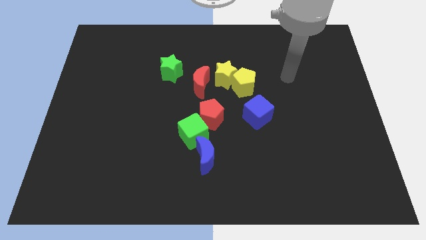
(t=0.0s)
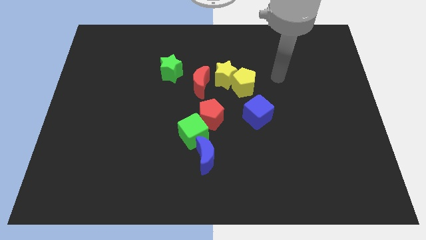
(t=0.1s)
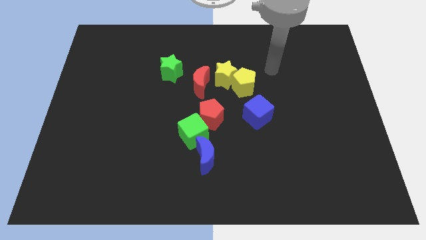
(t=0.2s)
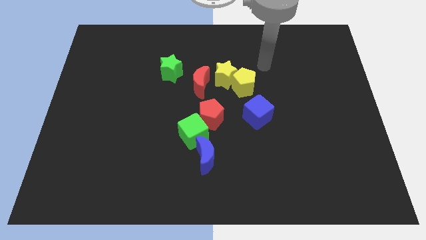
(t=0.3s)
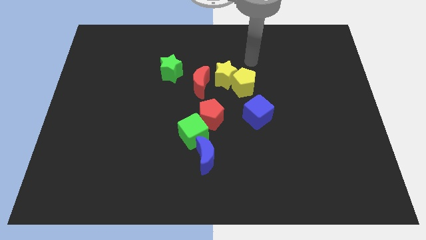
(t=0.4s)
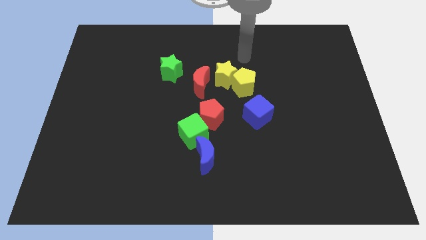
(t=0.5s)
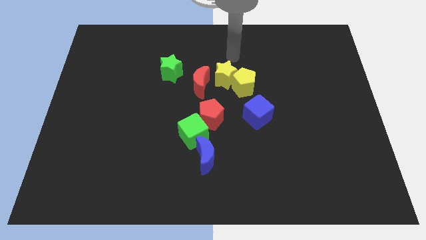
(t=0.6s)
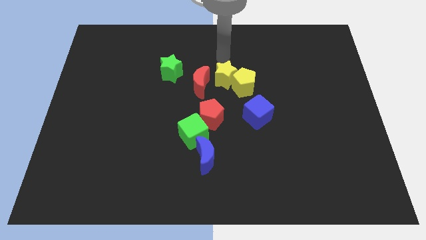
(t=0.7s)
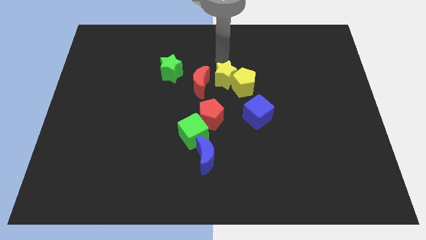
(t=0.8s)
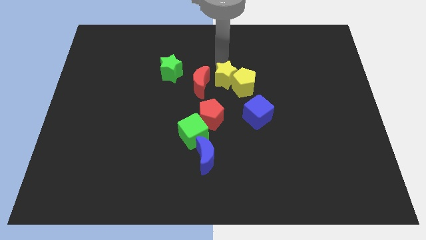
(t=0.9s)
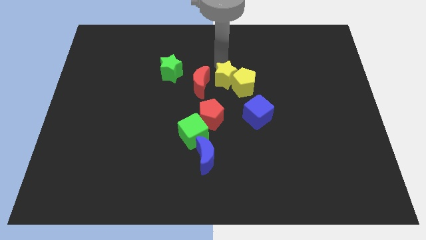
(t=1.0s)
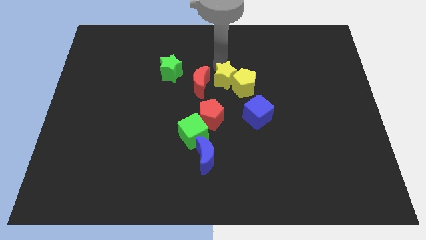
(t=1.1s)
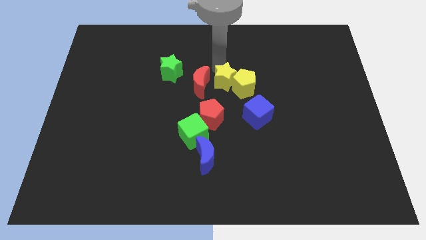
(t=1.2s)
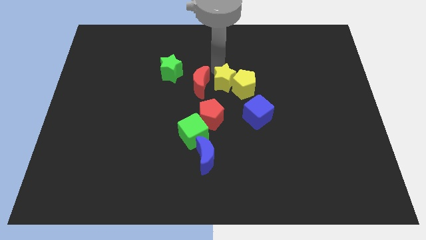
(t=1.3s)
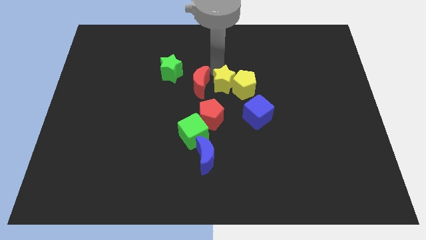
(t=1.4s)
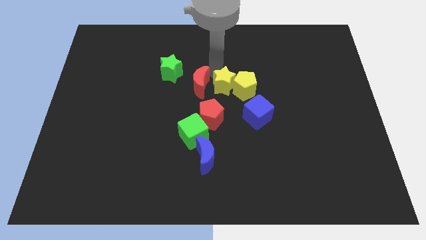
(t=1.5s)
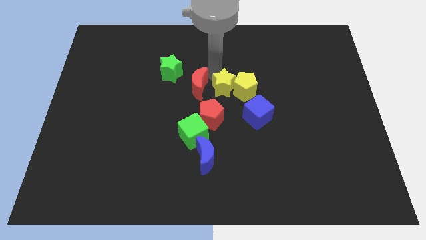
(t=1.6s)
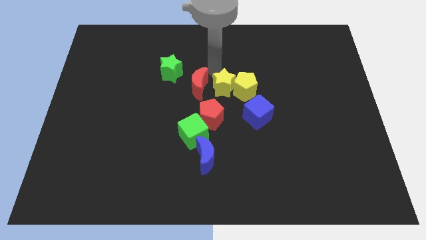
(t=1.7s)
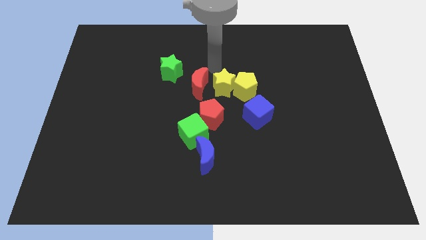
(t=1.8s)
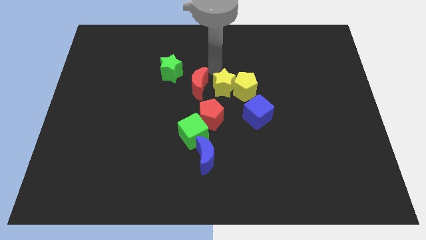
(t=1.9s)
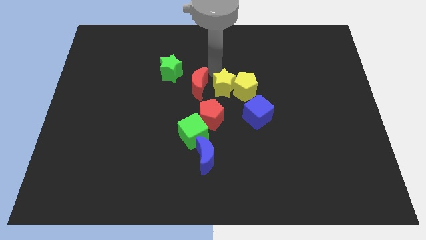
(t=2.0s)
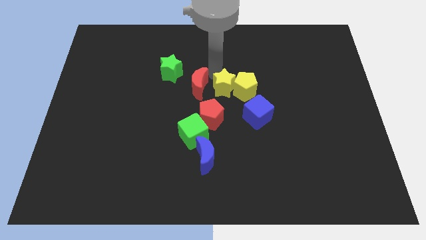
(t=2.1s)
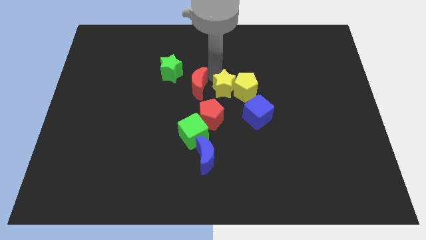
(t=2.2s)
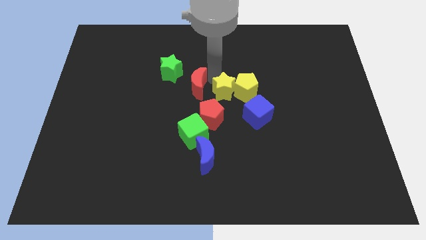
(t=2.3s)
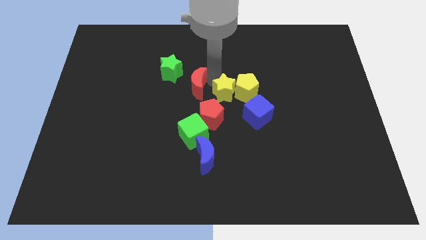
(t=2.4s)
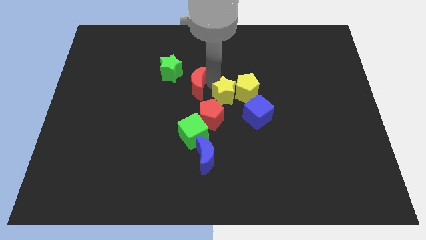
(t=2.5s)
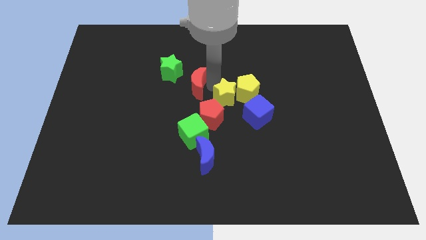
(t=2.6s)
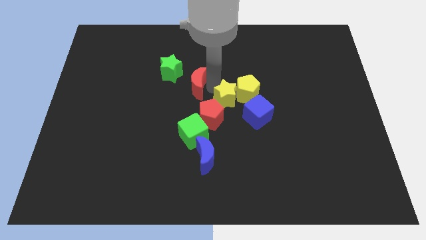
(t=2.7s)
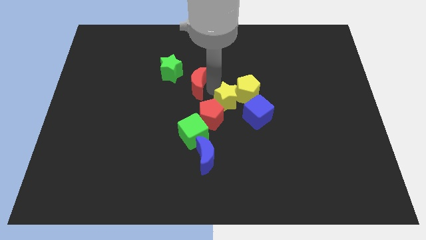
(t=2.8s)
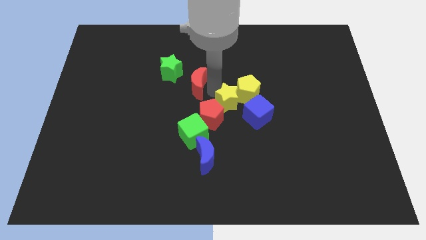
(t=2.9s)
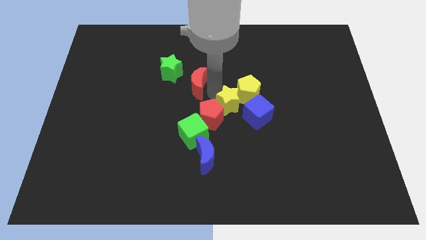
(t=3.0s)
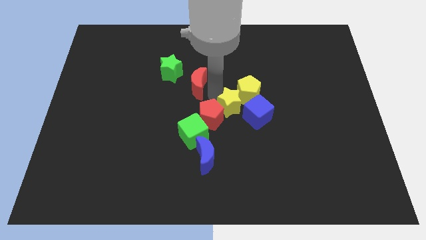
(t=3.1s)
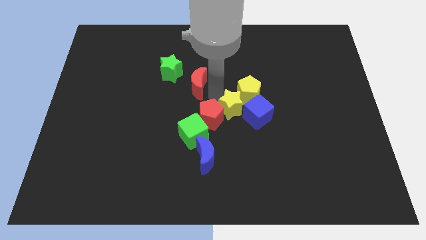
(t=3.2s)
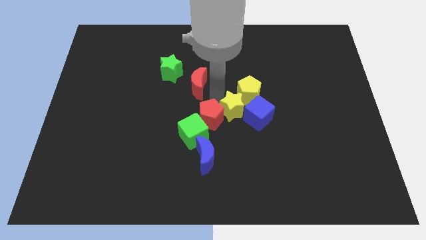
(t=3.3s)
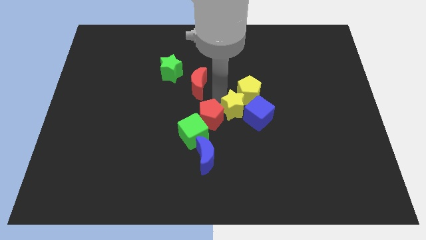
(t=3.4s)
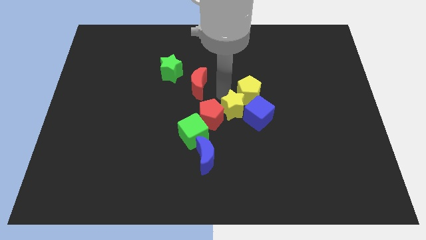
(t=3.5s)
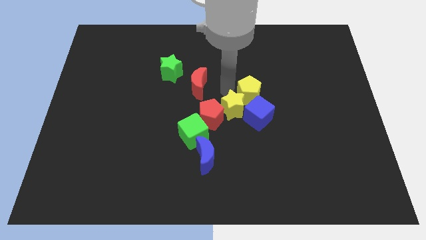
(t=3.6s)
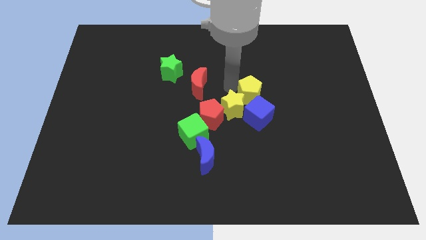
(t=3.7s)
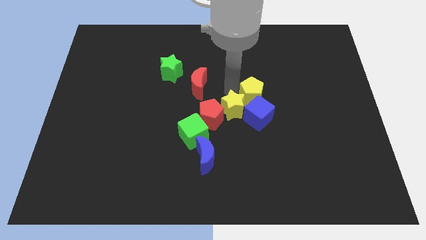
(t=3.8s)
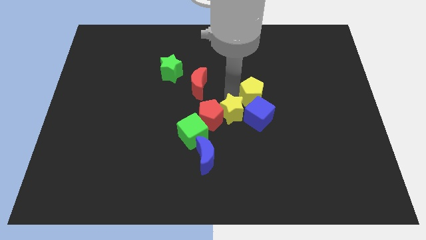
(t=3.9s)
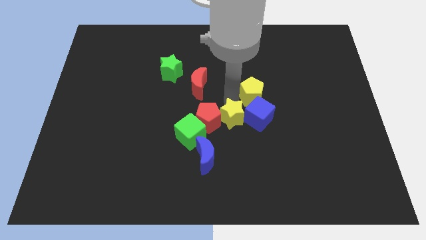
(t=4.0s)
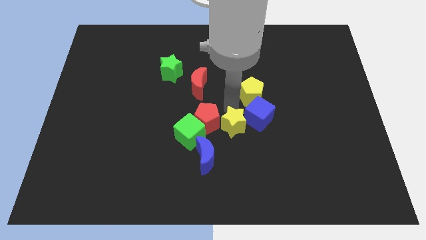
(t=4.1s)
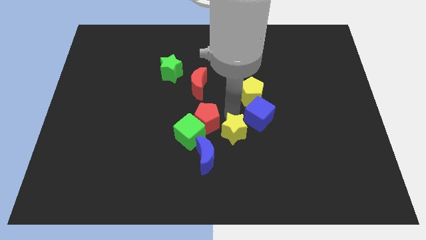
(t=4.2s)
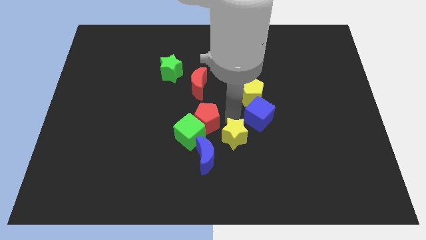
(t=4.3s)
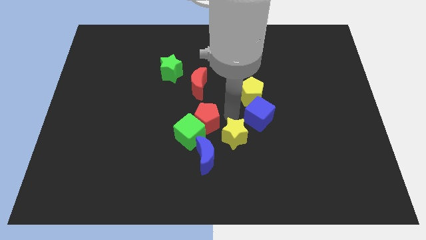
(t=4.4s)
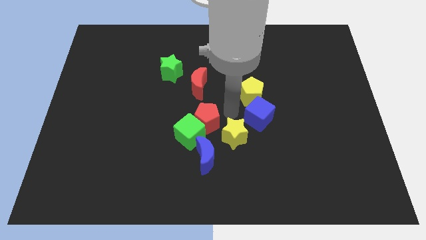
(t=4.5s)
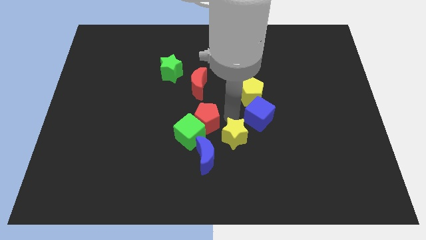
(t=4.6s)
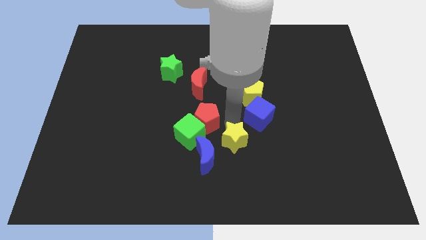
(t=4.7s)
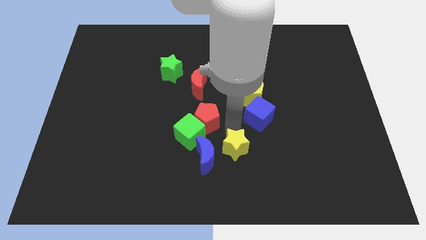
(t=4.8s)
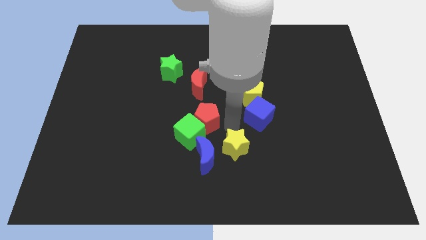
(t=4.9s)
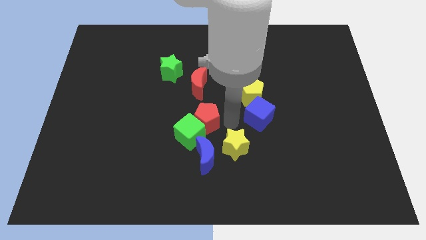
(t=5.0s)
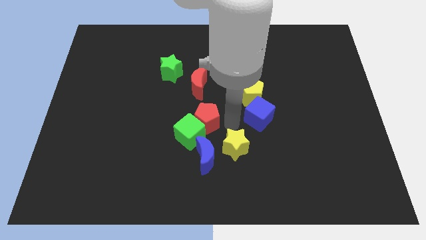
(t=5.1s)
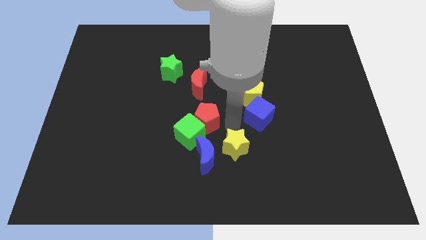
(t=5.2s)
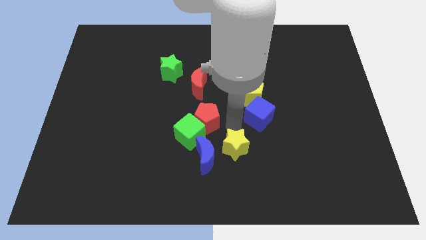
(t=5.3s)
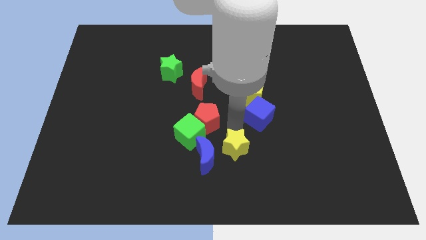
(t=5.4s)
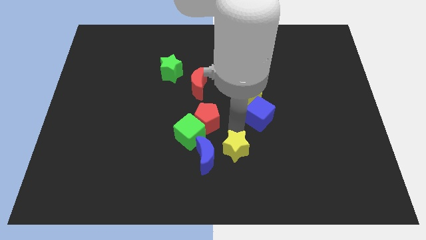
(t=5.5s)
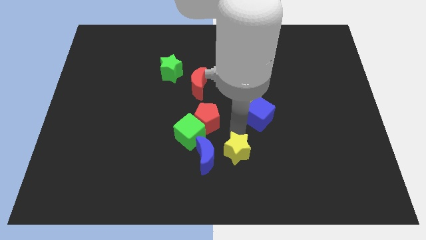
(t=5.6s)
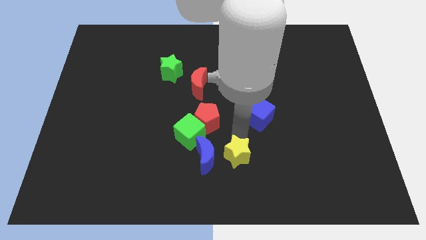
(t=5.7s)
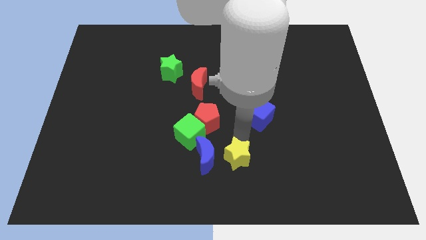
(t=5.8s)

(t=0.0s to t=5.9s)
slide the yellow star to the bottom side

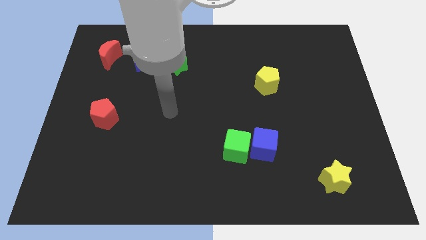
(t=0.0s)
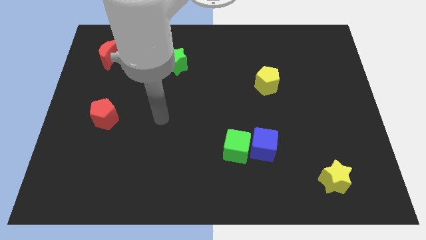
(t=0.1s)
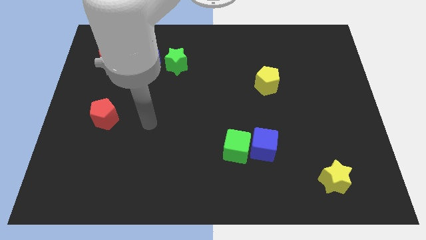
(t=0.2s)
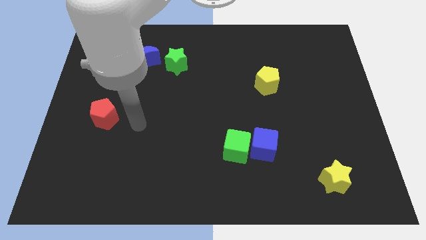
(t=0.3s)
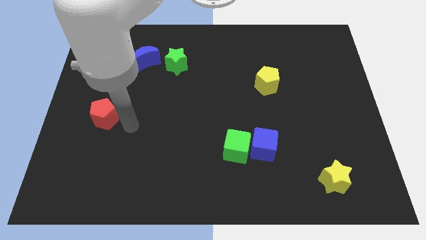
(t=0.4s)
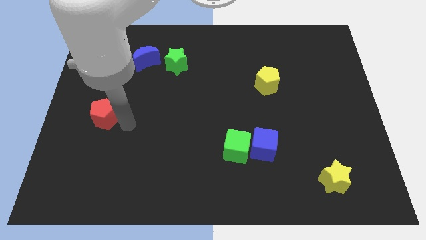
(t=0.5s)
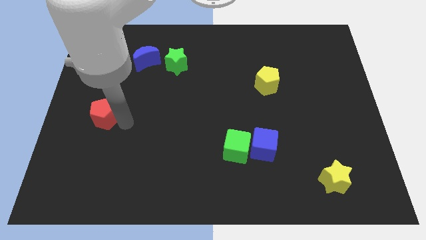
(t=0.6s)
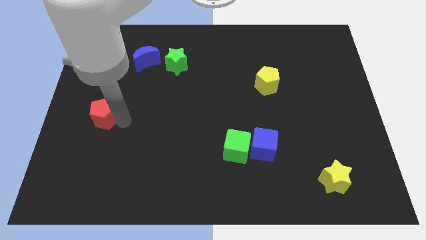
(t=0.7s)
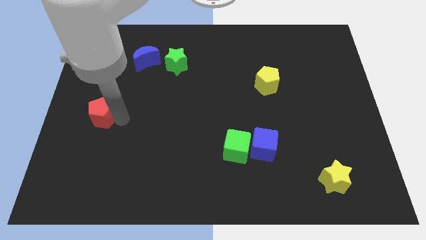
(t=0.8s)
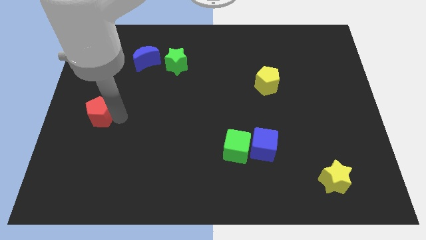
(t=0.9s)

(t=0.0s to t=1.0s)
push the red pentagon to the left side

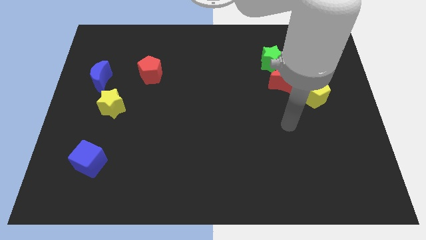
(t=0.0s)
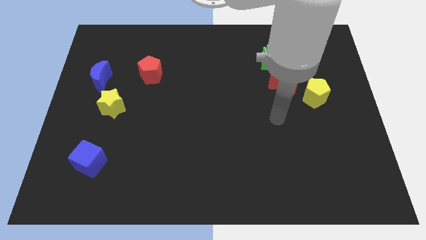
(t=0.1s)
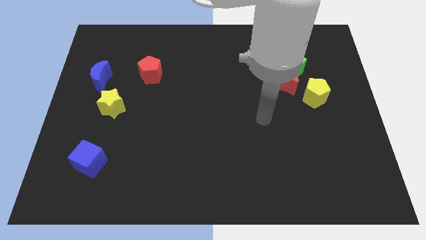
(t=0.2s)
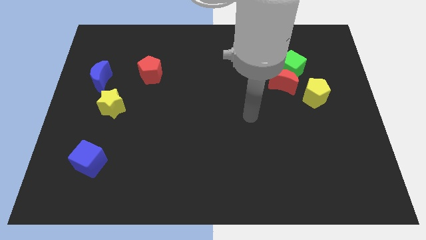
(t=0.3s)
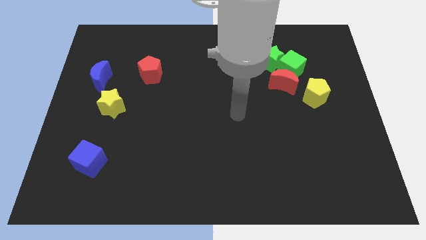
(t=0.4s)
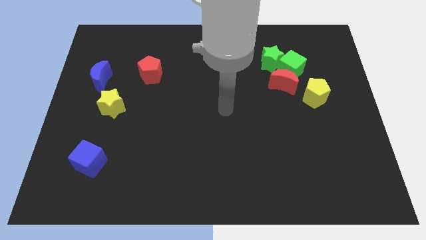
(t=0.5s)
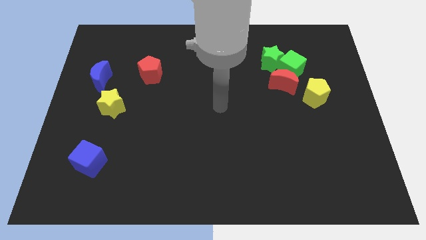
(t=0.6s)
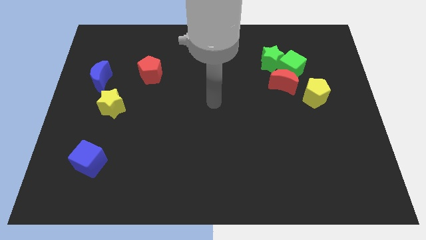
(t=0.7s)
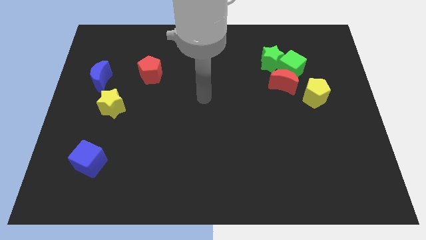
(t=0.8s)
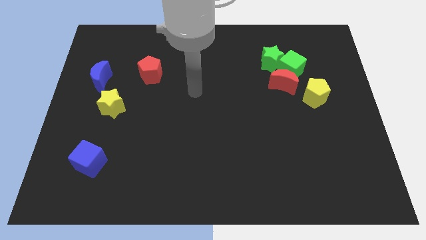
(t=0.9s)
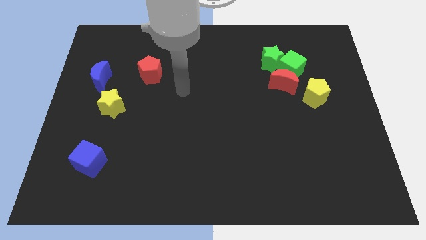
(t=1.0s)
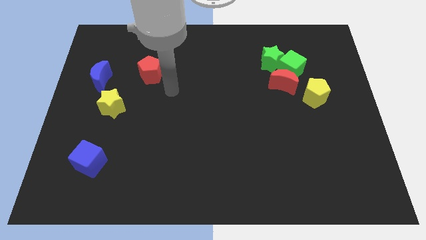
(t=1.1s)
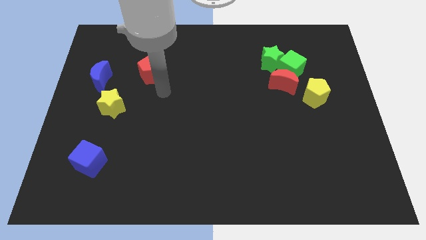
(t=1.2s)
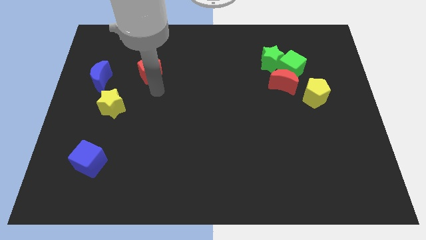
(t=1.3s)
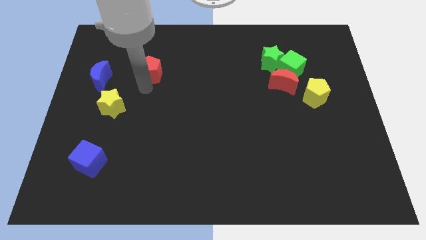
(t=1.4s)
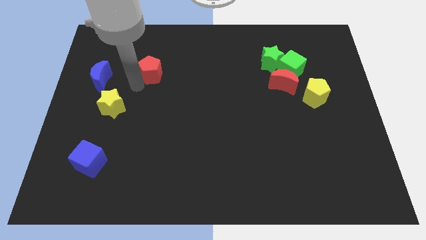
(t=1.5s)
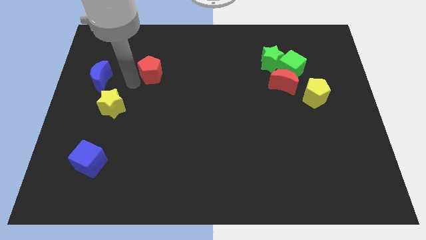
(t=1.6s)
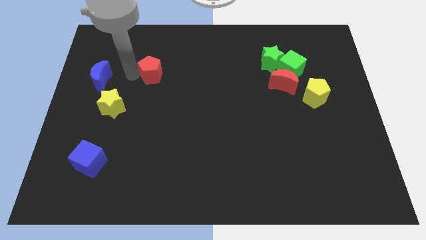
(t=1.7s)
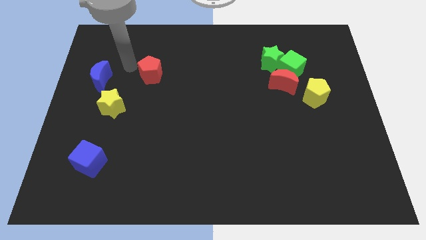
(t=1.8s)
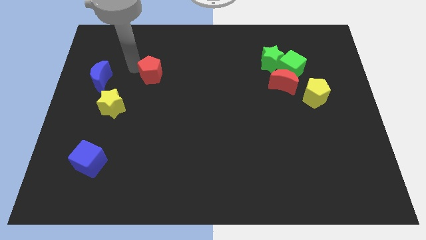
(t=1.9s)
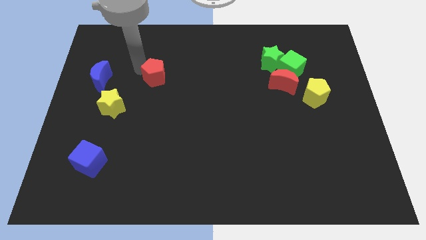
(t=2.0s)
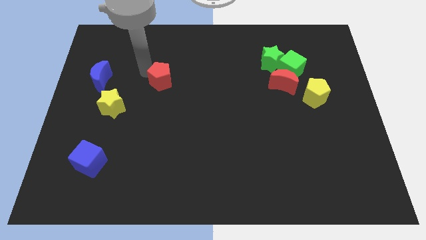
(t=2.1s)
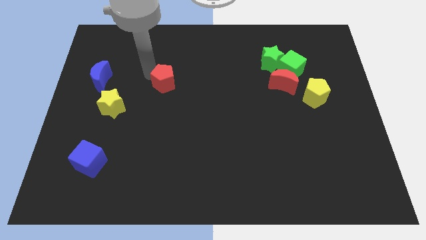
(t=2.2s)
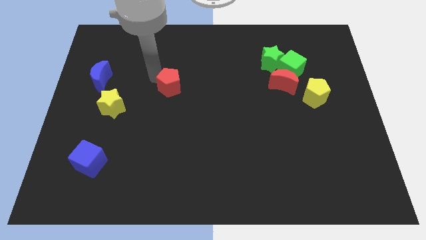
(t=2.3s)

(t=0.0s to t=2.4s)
put the red pentagon to the center
